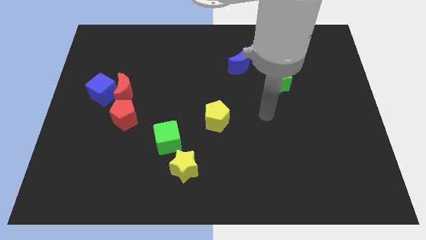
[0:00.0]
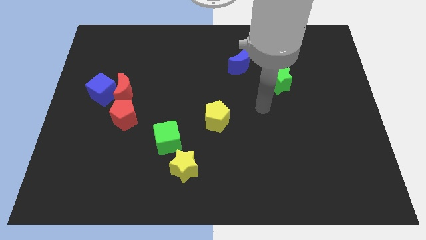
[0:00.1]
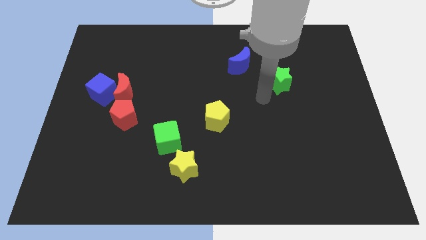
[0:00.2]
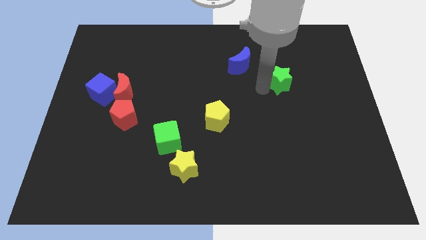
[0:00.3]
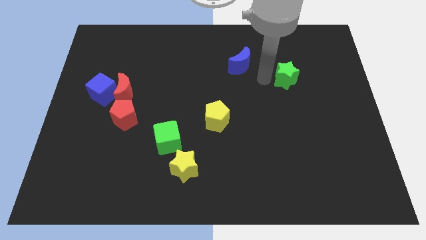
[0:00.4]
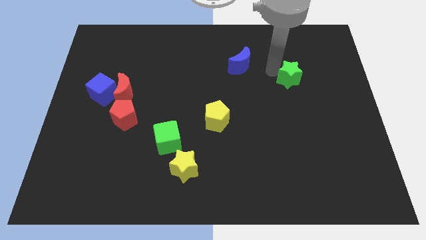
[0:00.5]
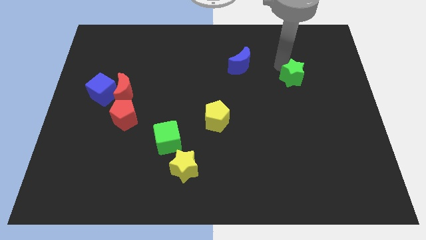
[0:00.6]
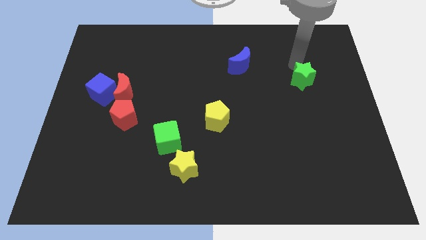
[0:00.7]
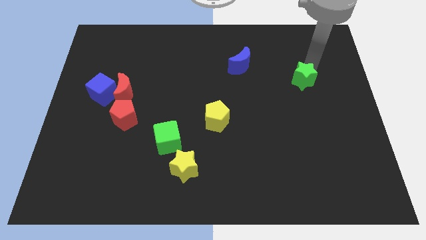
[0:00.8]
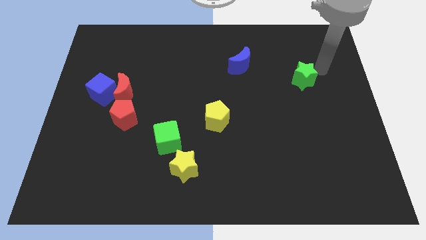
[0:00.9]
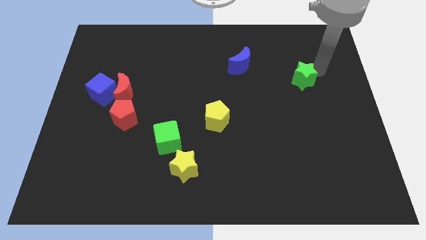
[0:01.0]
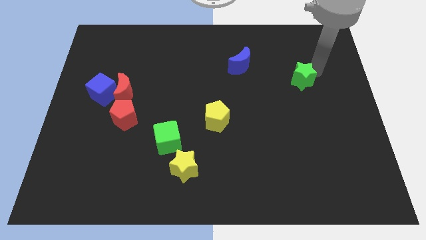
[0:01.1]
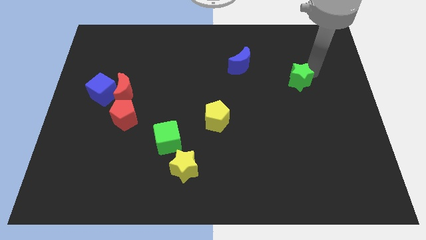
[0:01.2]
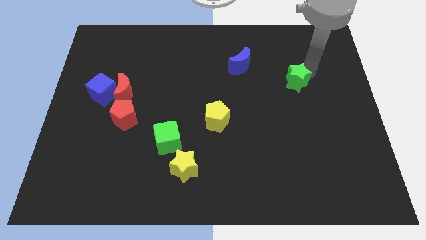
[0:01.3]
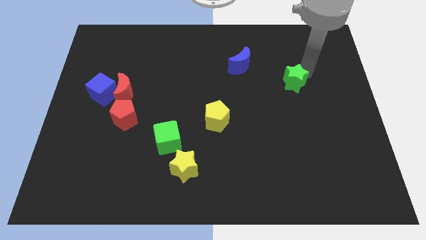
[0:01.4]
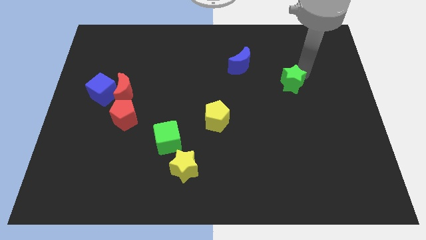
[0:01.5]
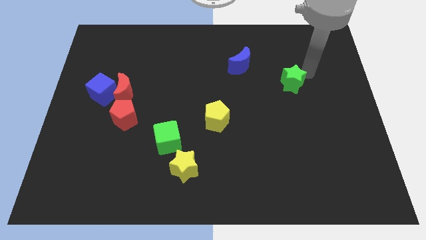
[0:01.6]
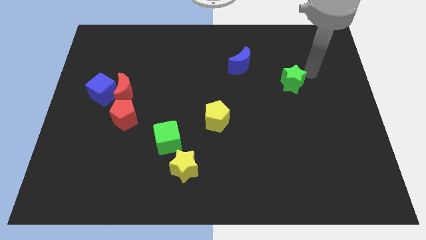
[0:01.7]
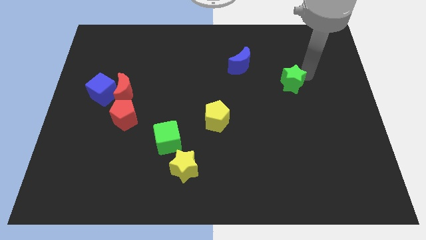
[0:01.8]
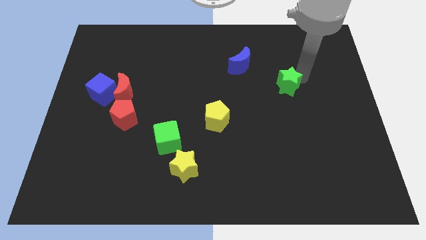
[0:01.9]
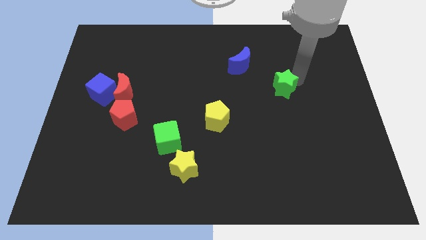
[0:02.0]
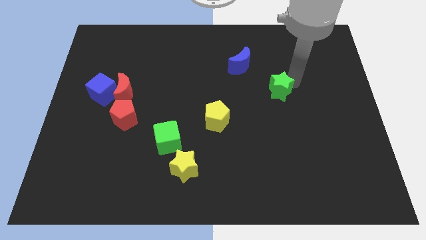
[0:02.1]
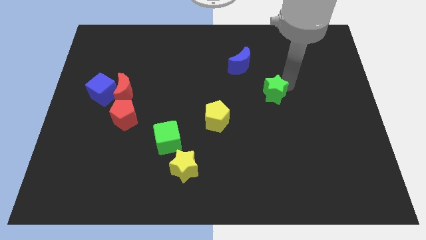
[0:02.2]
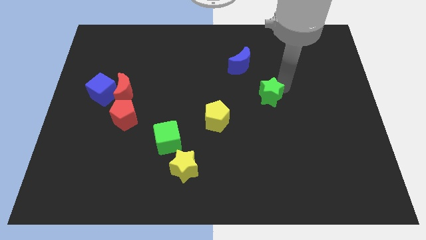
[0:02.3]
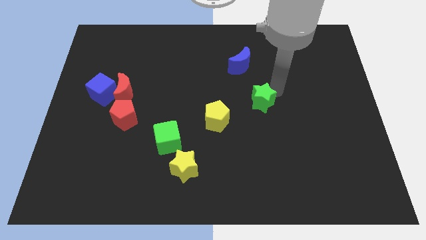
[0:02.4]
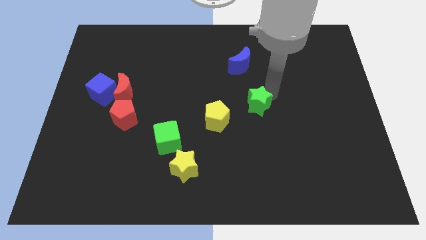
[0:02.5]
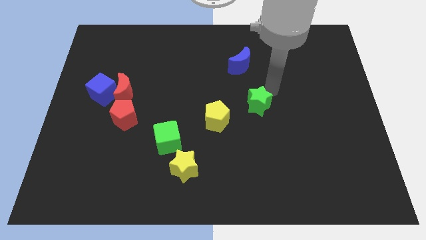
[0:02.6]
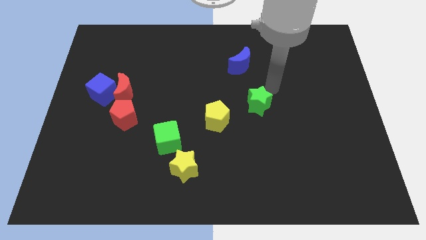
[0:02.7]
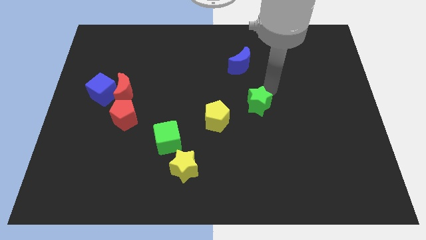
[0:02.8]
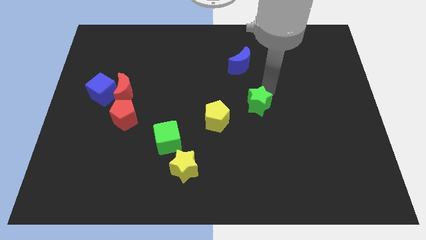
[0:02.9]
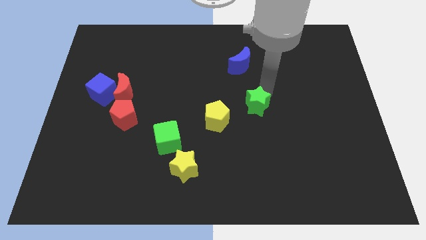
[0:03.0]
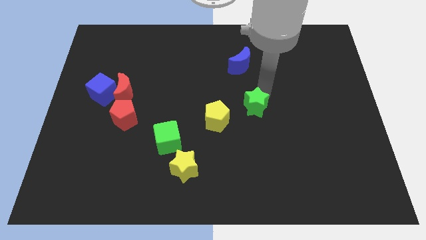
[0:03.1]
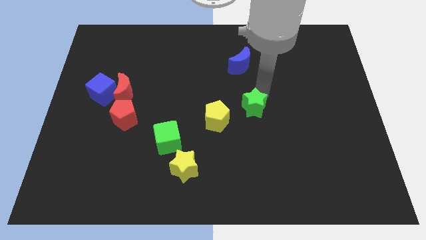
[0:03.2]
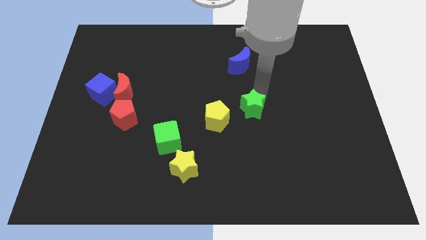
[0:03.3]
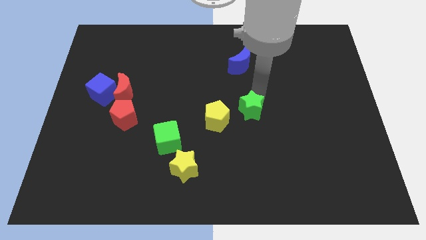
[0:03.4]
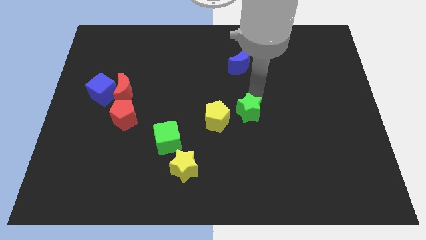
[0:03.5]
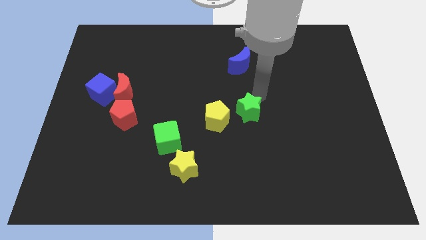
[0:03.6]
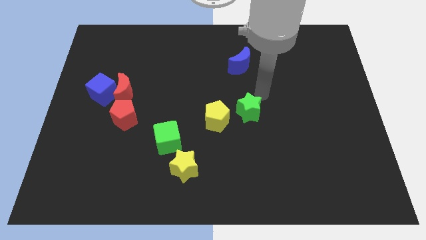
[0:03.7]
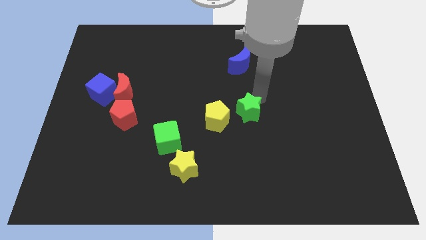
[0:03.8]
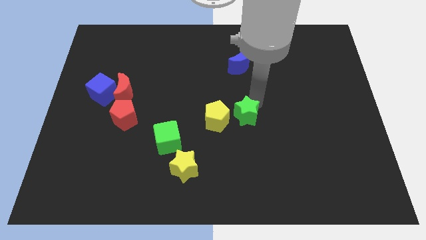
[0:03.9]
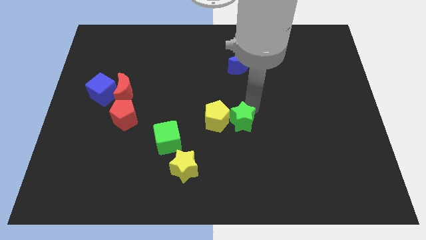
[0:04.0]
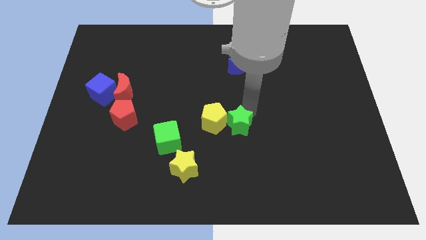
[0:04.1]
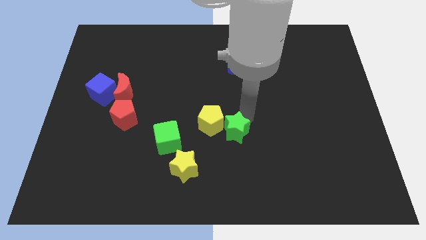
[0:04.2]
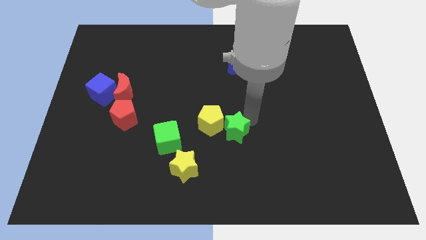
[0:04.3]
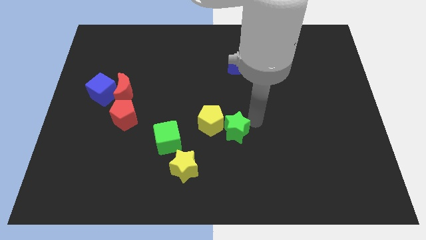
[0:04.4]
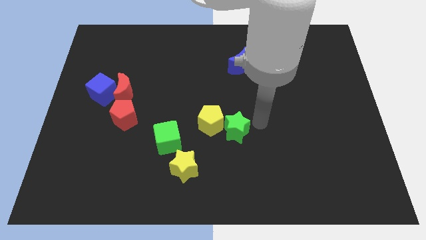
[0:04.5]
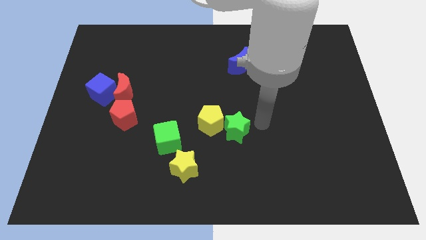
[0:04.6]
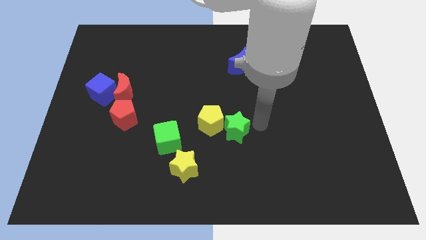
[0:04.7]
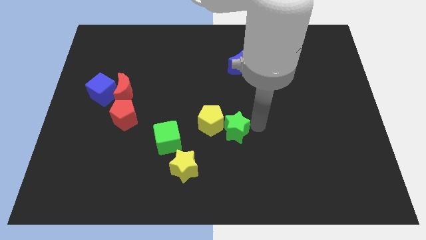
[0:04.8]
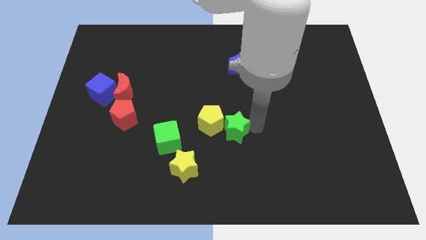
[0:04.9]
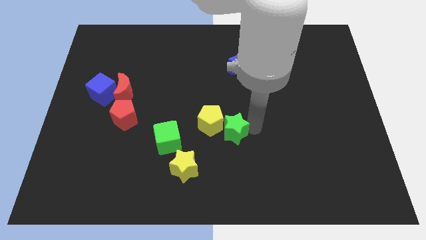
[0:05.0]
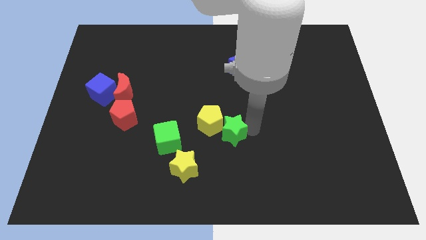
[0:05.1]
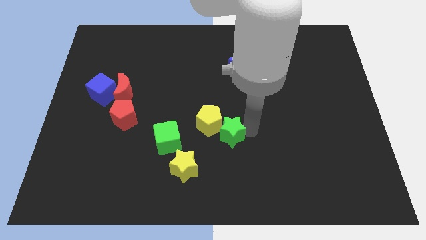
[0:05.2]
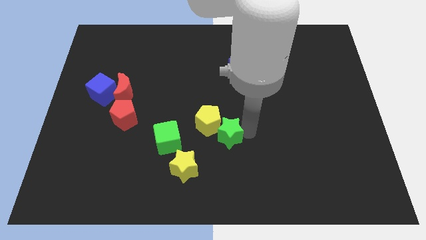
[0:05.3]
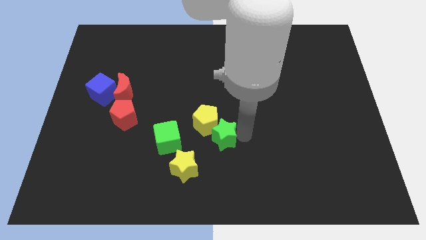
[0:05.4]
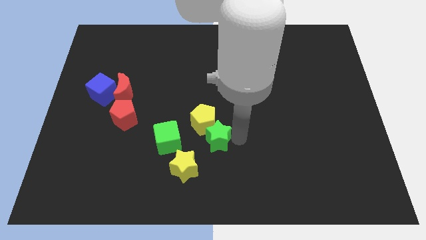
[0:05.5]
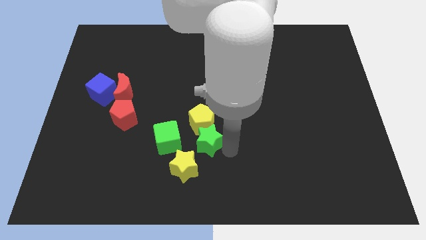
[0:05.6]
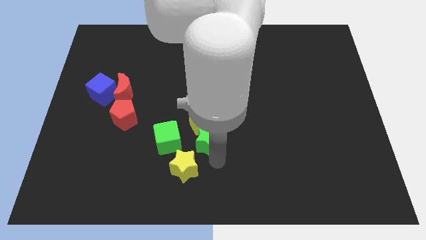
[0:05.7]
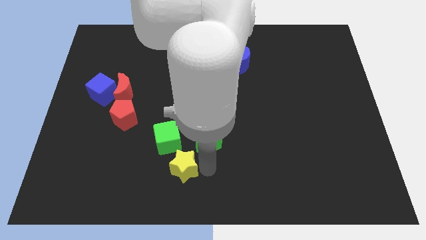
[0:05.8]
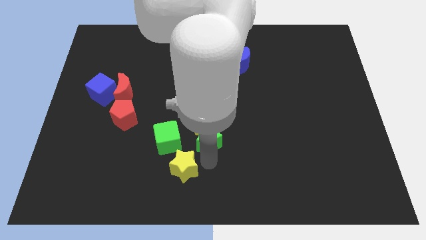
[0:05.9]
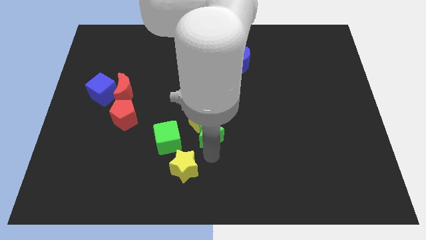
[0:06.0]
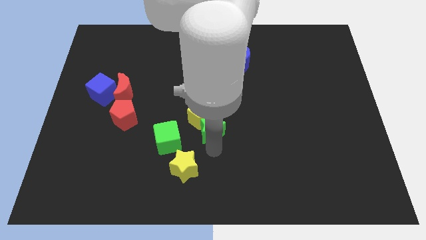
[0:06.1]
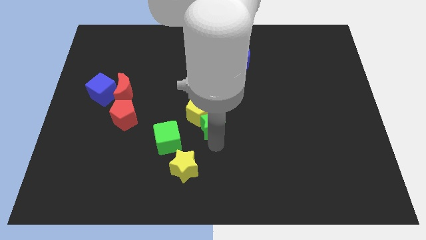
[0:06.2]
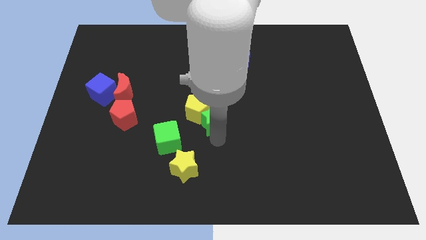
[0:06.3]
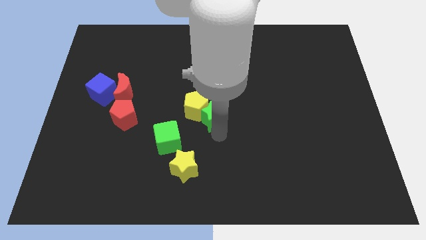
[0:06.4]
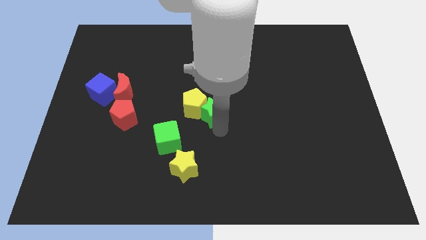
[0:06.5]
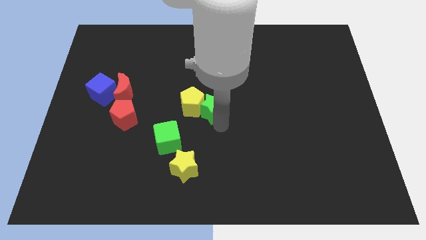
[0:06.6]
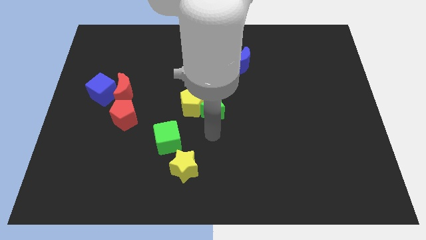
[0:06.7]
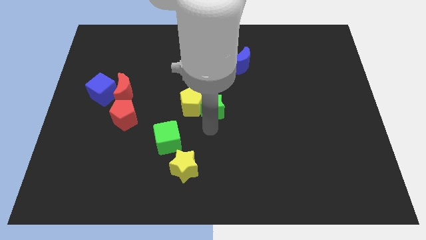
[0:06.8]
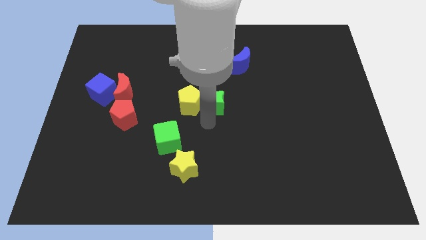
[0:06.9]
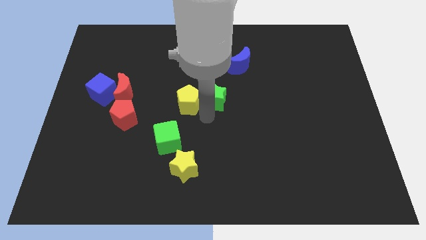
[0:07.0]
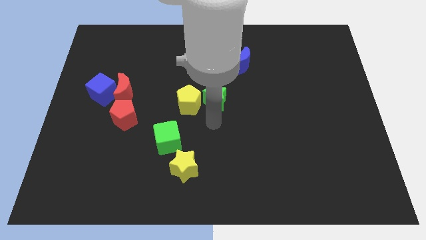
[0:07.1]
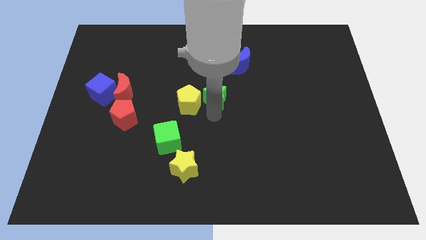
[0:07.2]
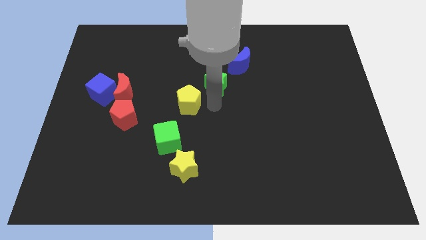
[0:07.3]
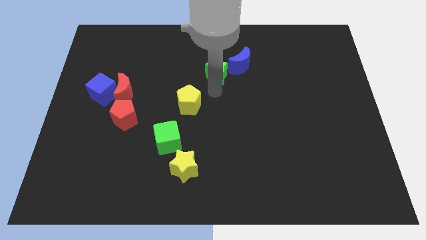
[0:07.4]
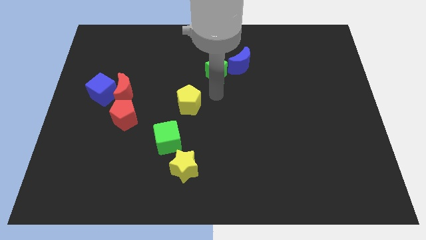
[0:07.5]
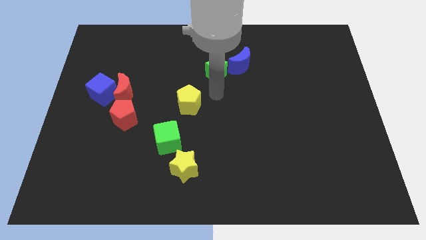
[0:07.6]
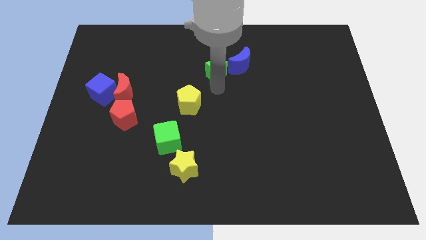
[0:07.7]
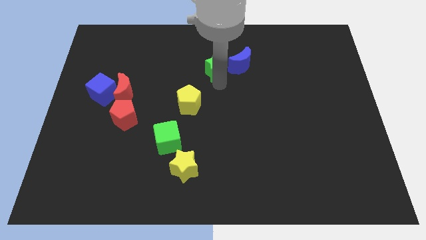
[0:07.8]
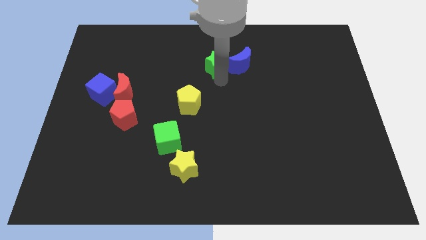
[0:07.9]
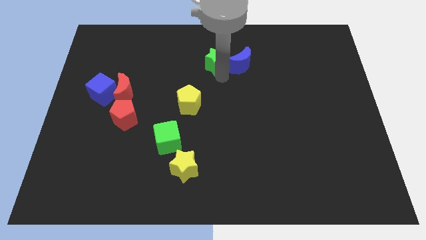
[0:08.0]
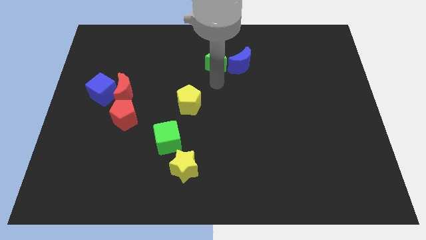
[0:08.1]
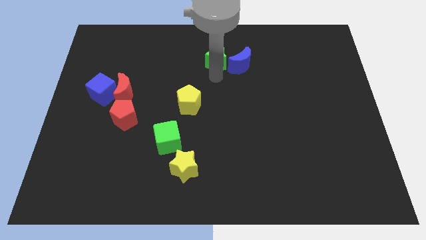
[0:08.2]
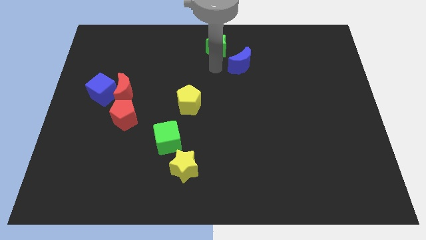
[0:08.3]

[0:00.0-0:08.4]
push the green star to the top
